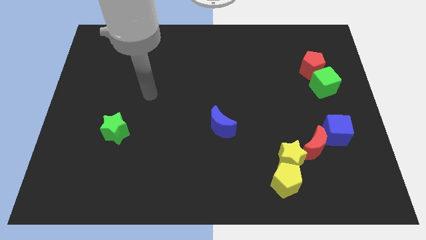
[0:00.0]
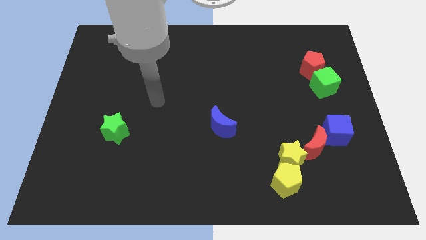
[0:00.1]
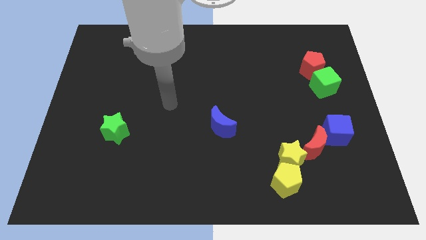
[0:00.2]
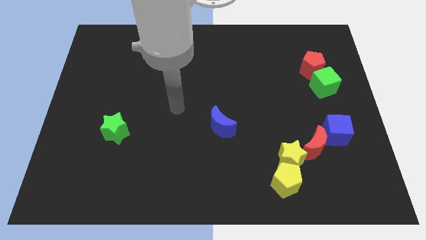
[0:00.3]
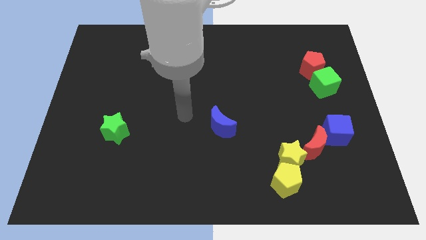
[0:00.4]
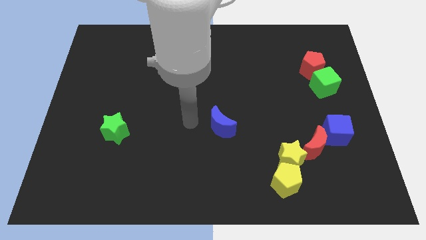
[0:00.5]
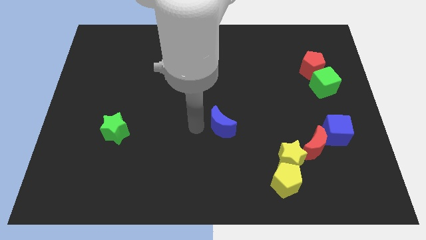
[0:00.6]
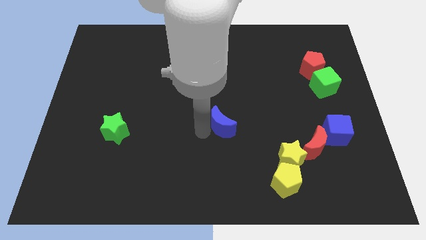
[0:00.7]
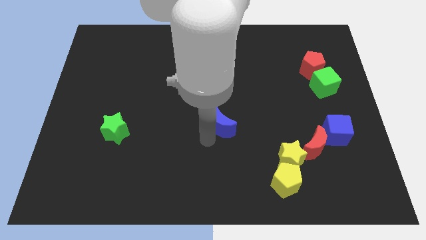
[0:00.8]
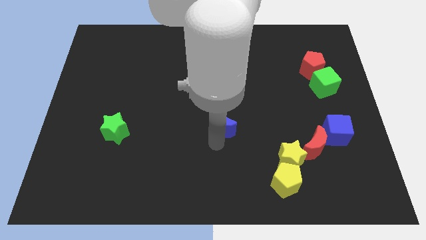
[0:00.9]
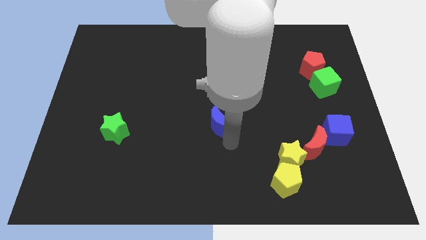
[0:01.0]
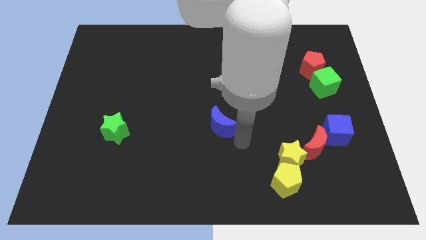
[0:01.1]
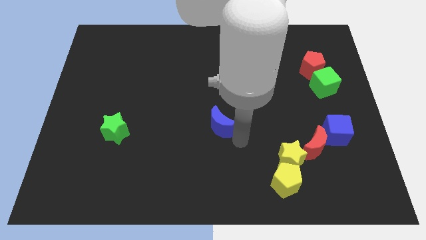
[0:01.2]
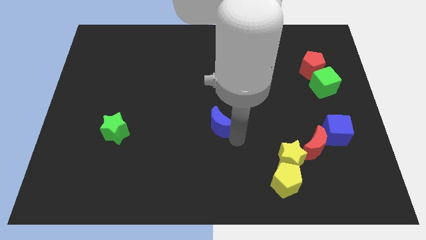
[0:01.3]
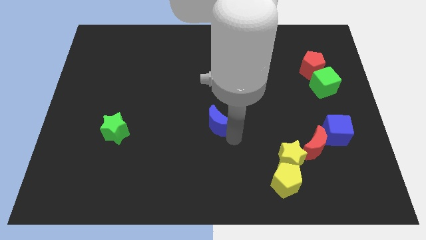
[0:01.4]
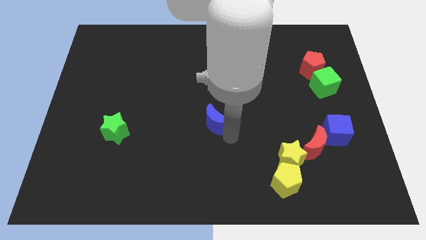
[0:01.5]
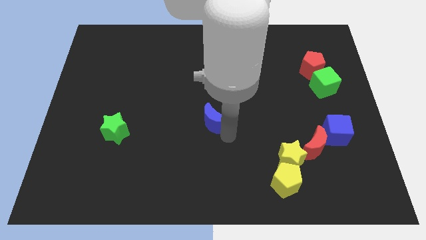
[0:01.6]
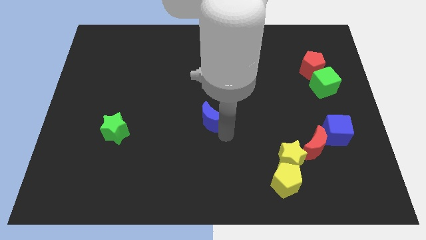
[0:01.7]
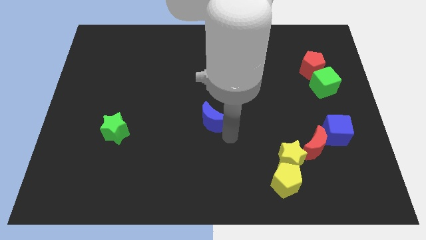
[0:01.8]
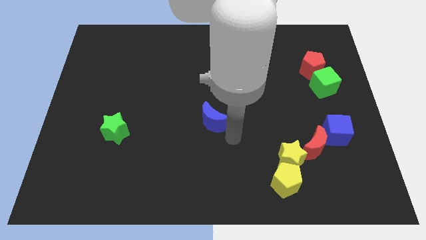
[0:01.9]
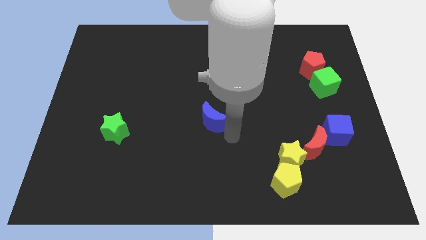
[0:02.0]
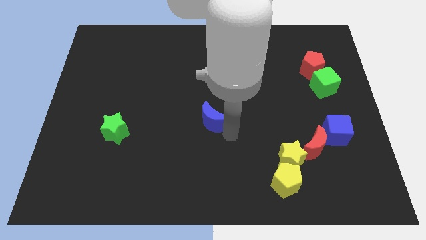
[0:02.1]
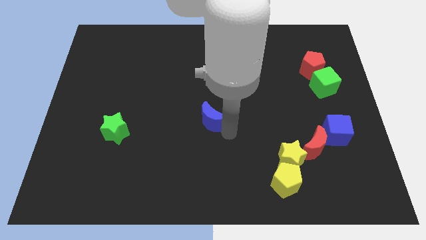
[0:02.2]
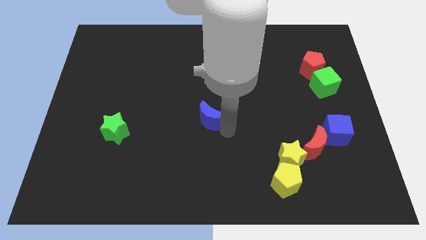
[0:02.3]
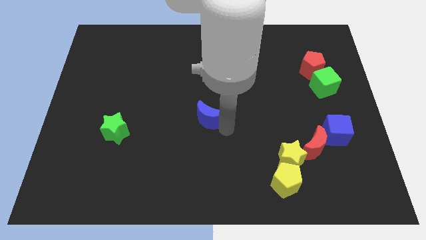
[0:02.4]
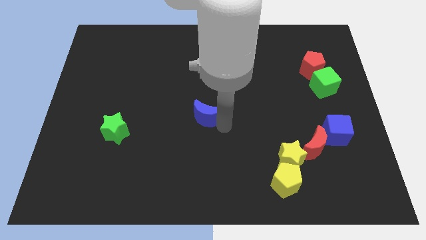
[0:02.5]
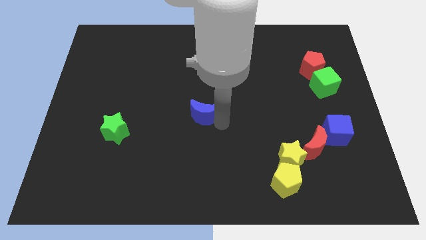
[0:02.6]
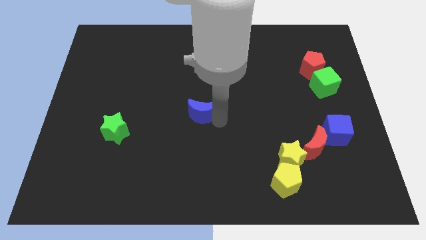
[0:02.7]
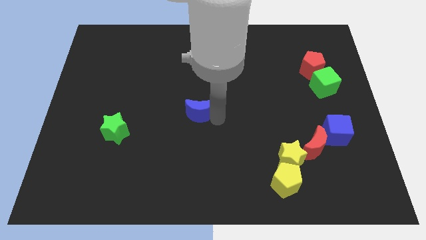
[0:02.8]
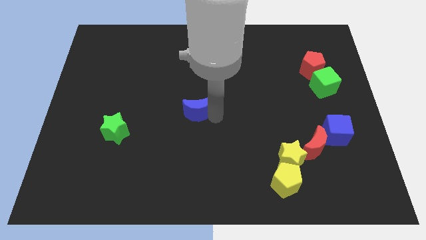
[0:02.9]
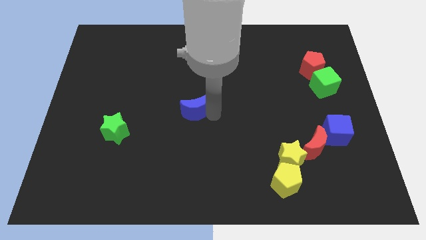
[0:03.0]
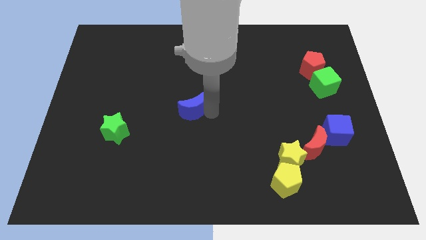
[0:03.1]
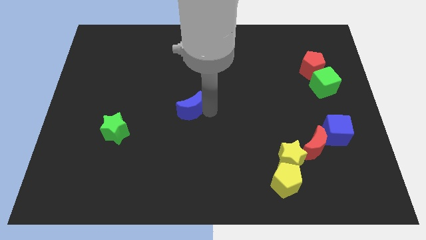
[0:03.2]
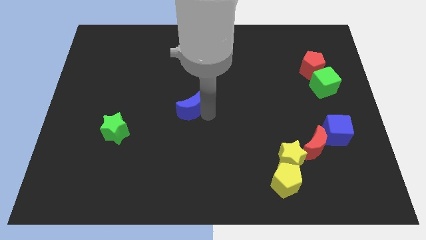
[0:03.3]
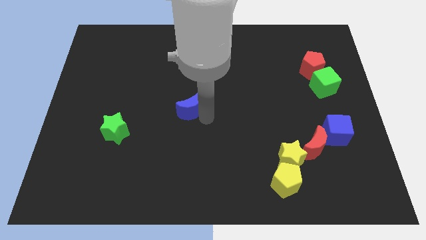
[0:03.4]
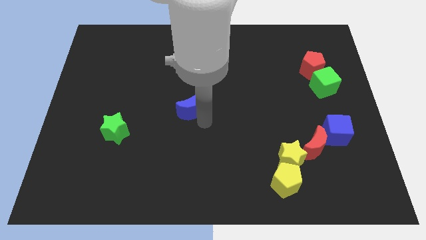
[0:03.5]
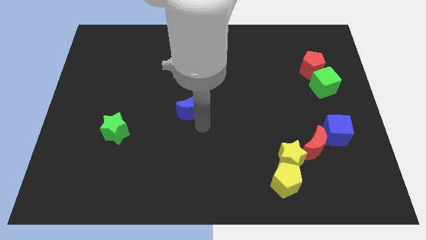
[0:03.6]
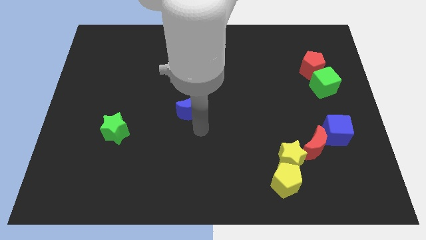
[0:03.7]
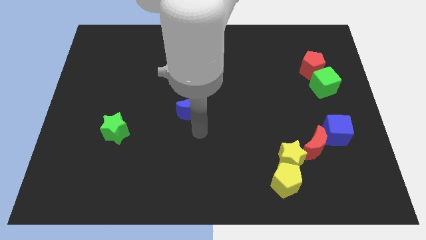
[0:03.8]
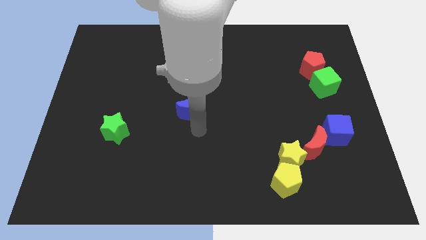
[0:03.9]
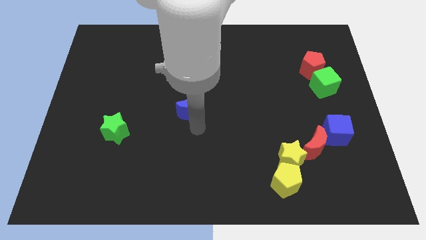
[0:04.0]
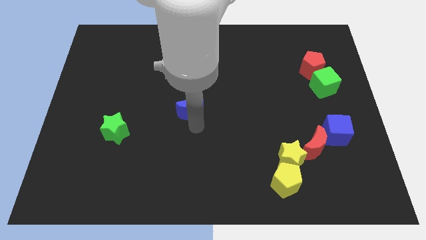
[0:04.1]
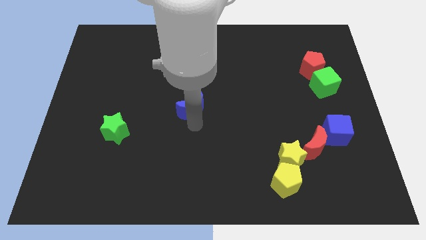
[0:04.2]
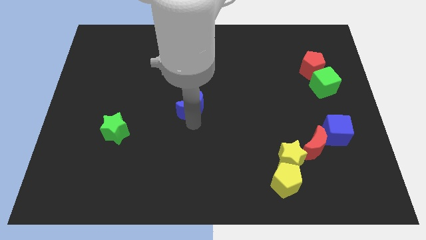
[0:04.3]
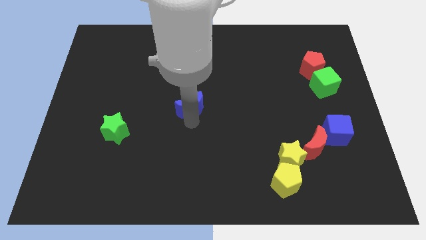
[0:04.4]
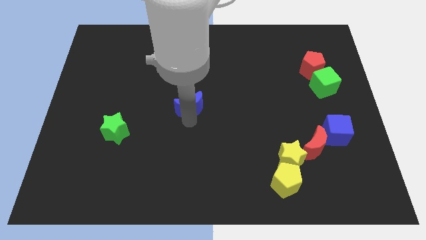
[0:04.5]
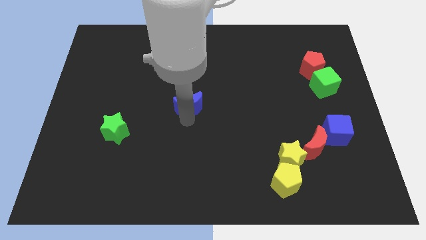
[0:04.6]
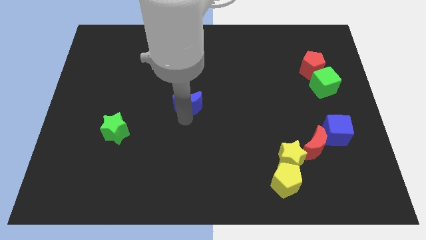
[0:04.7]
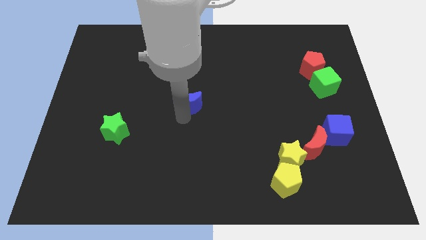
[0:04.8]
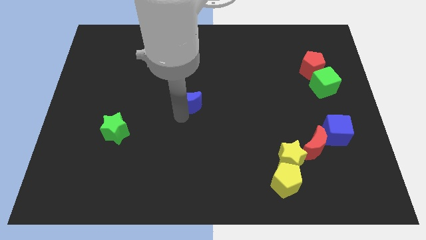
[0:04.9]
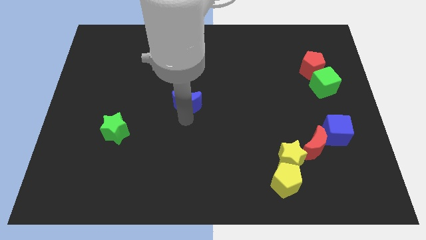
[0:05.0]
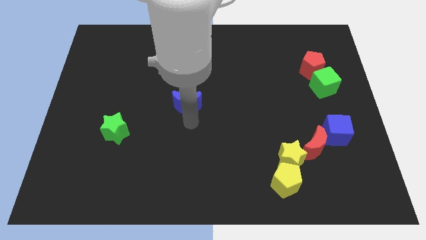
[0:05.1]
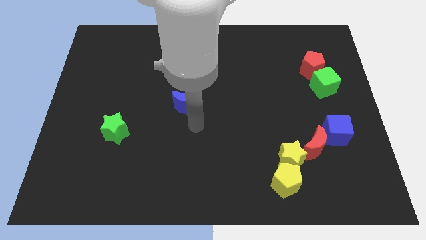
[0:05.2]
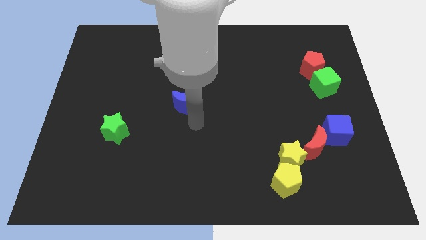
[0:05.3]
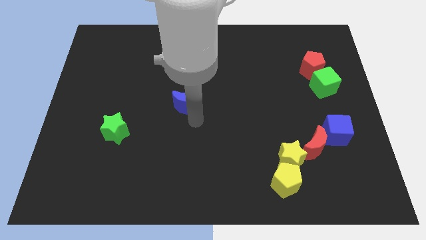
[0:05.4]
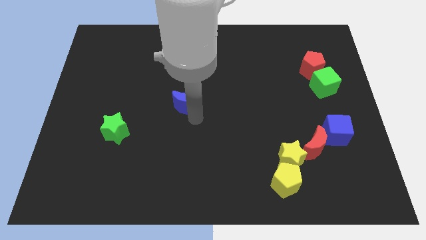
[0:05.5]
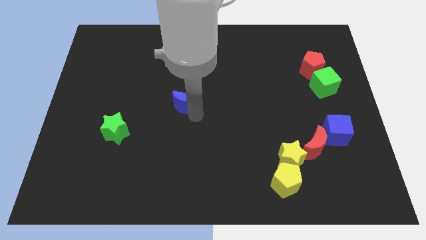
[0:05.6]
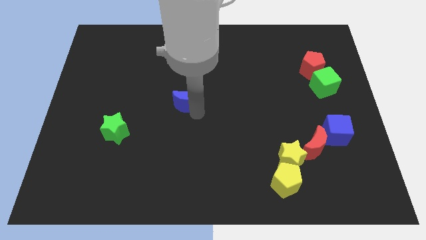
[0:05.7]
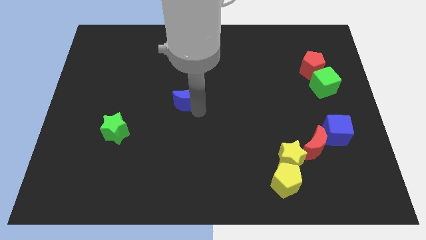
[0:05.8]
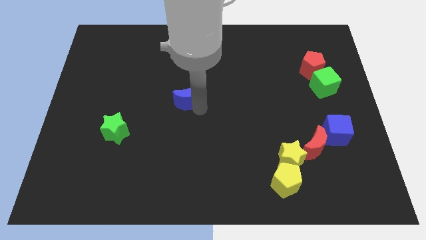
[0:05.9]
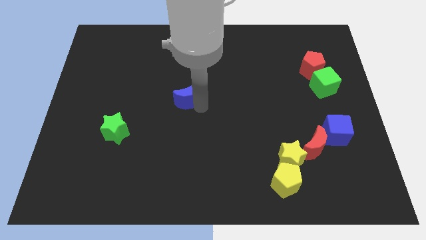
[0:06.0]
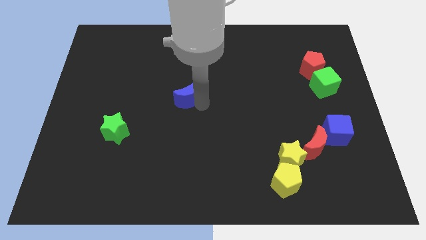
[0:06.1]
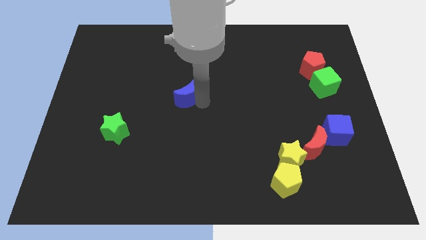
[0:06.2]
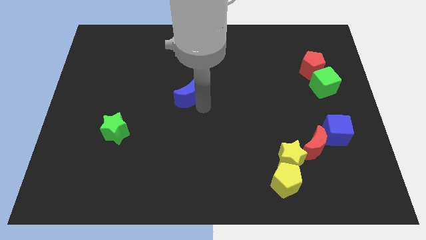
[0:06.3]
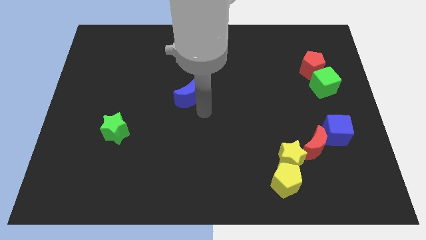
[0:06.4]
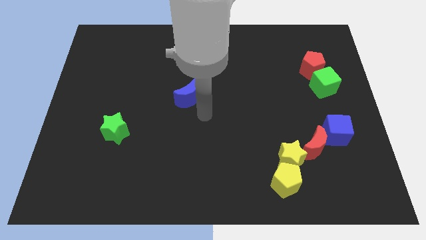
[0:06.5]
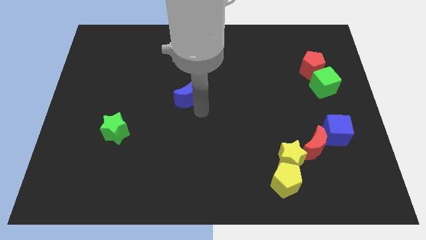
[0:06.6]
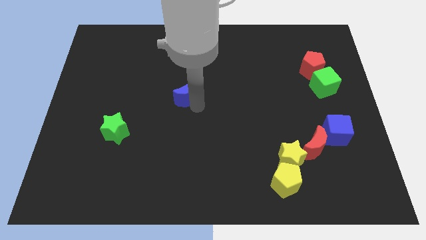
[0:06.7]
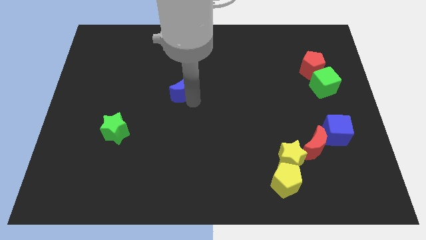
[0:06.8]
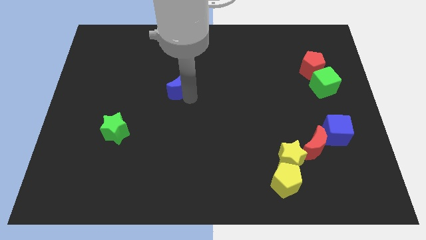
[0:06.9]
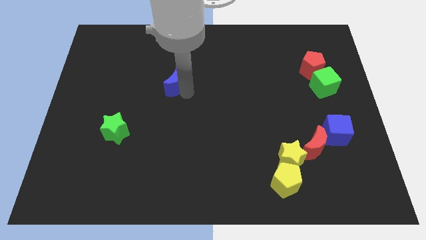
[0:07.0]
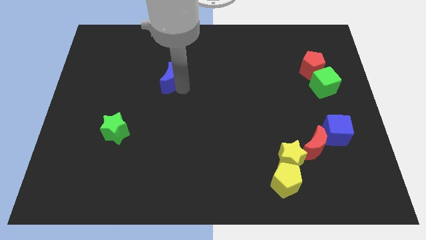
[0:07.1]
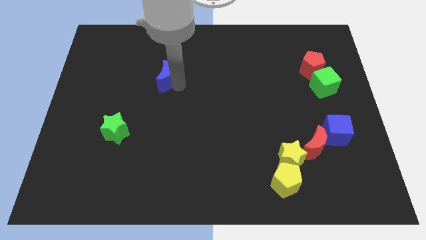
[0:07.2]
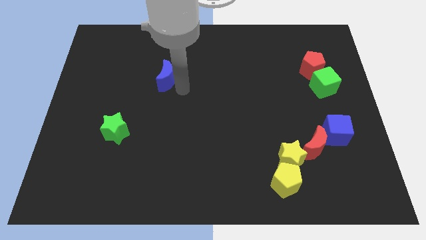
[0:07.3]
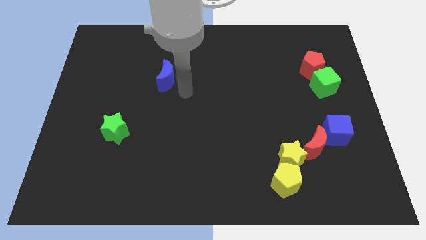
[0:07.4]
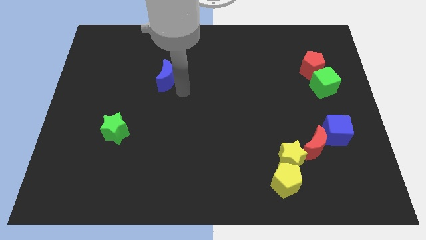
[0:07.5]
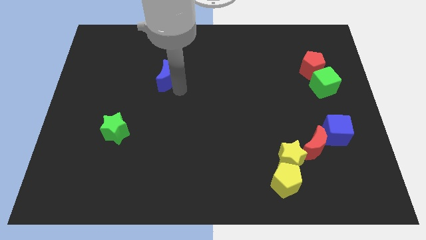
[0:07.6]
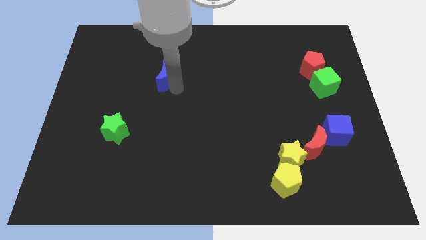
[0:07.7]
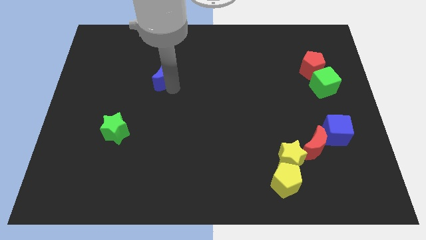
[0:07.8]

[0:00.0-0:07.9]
push the blue moon upwards and left diagonally

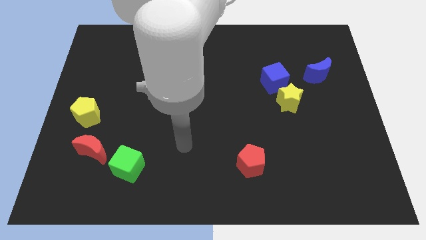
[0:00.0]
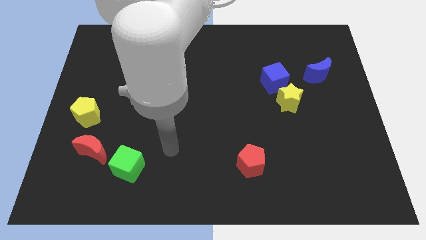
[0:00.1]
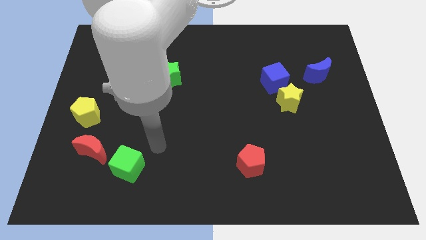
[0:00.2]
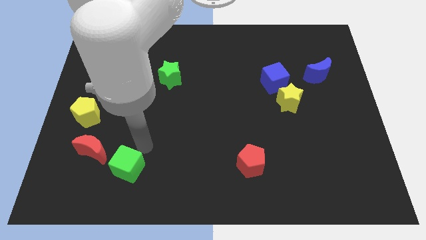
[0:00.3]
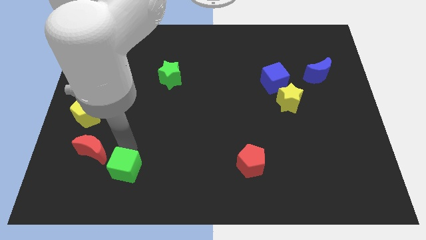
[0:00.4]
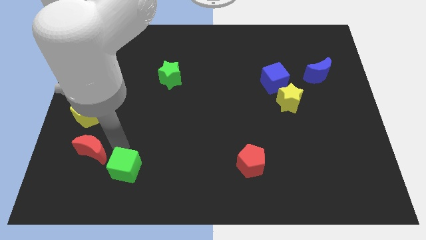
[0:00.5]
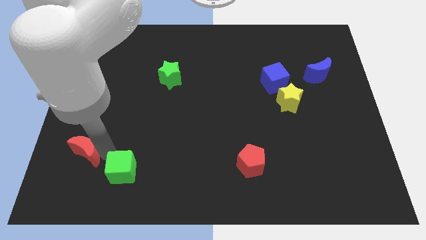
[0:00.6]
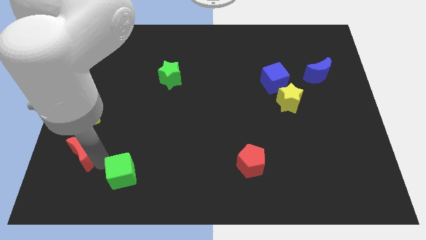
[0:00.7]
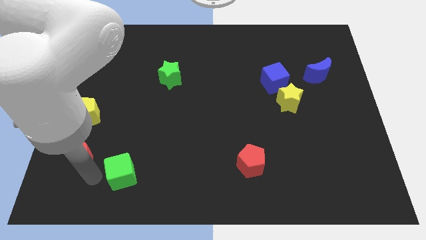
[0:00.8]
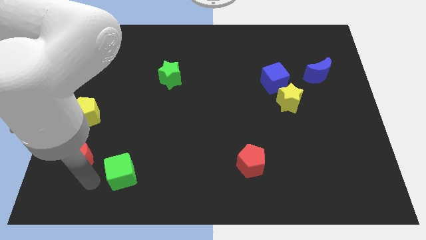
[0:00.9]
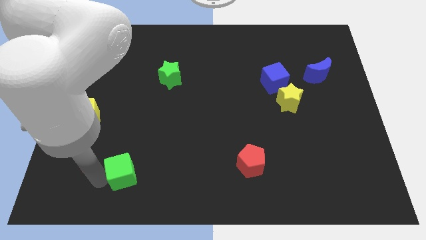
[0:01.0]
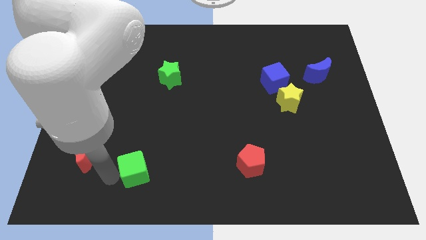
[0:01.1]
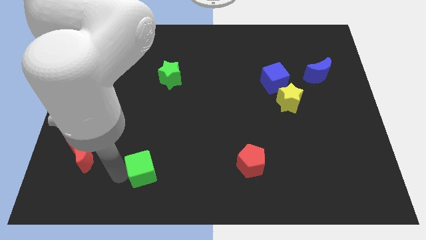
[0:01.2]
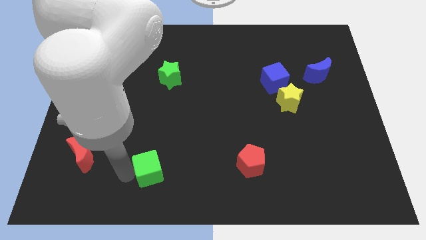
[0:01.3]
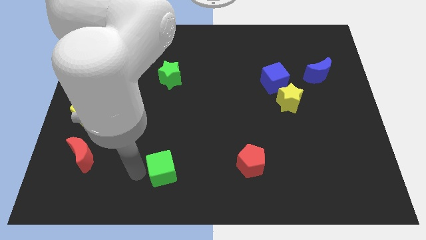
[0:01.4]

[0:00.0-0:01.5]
push the green cube a bit right
